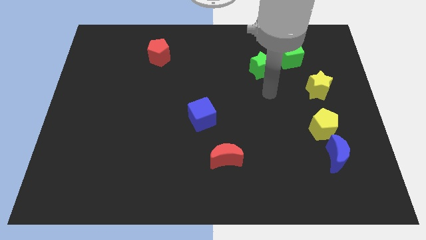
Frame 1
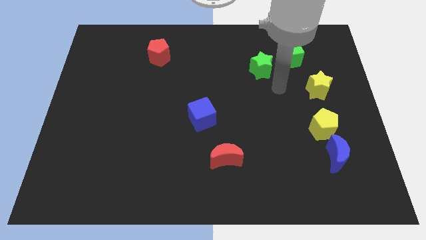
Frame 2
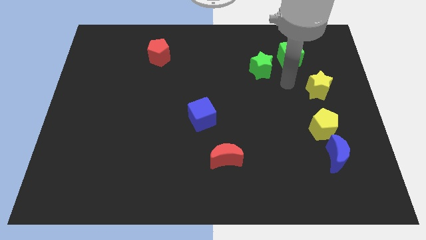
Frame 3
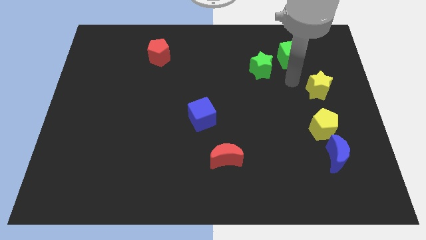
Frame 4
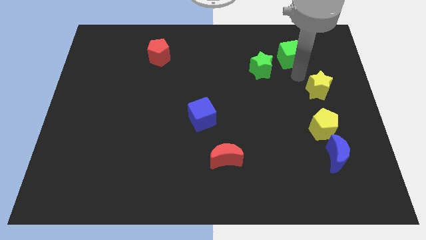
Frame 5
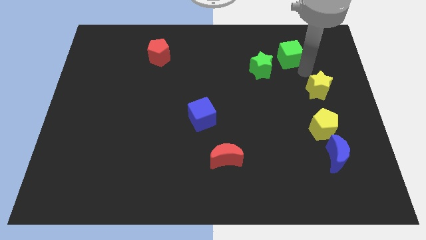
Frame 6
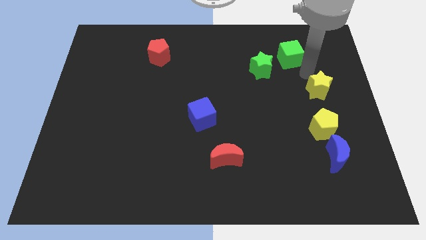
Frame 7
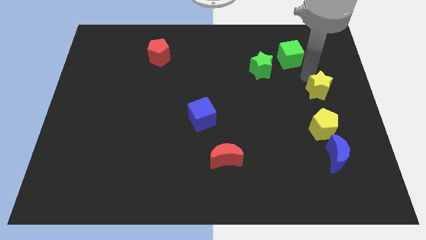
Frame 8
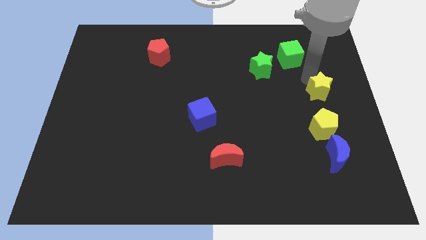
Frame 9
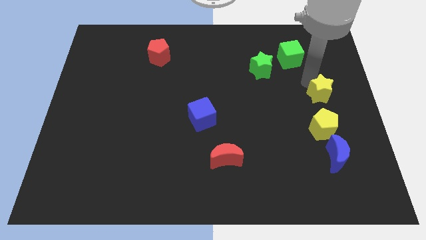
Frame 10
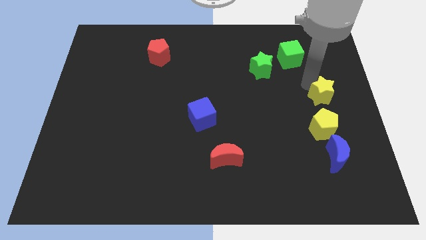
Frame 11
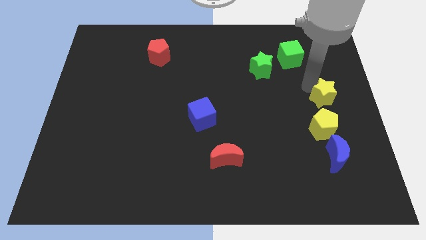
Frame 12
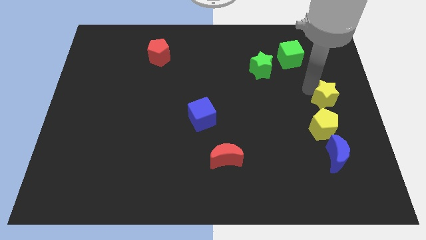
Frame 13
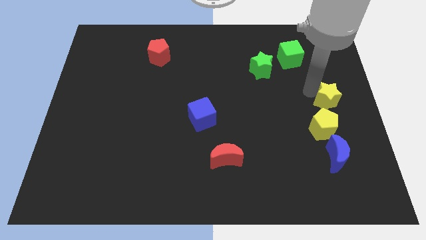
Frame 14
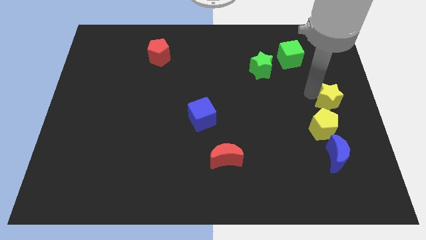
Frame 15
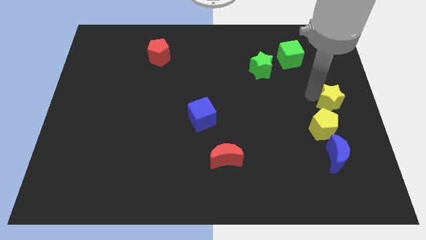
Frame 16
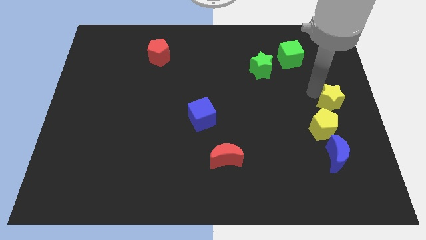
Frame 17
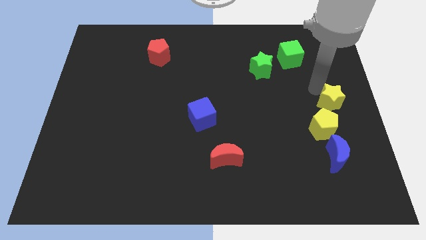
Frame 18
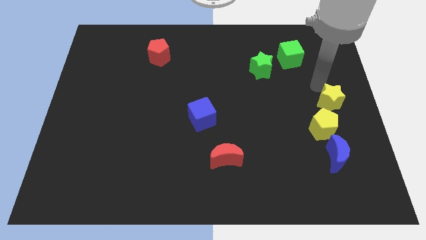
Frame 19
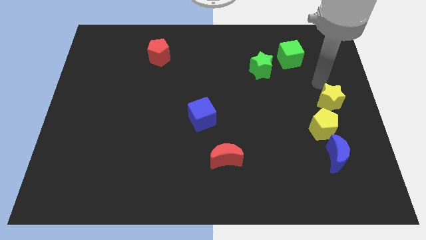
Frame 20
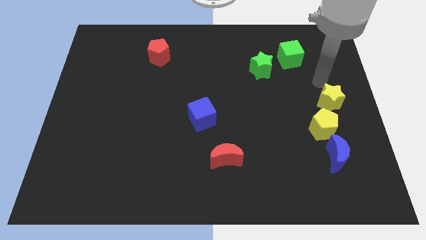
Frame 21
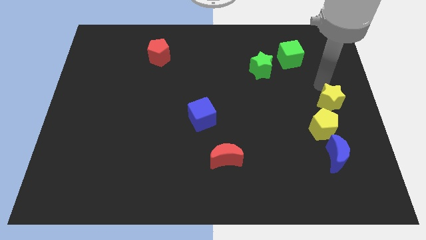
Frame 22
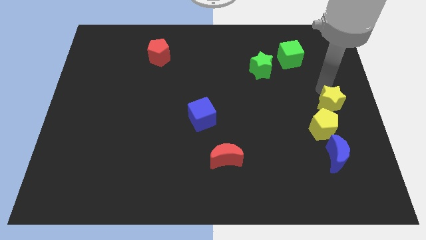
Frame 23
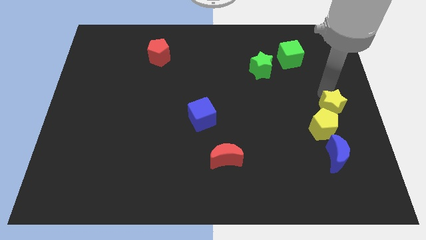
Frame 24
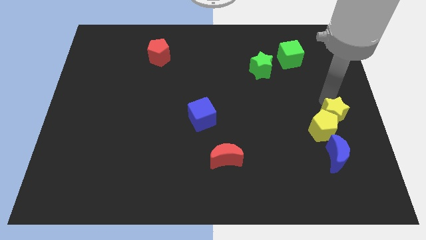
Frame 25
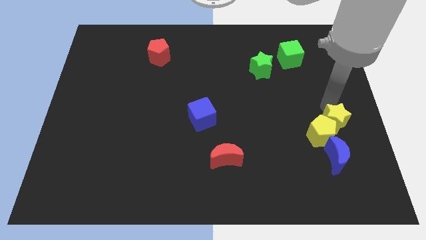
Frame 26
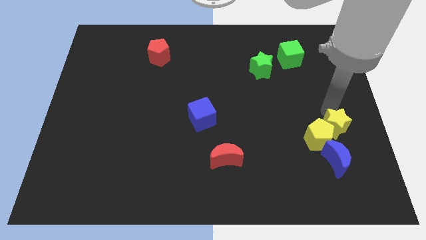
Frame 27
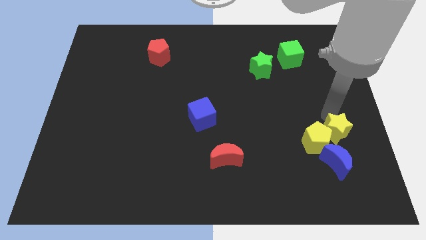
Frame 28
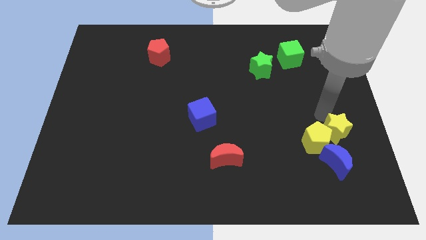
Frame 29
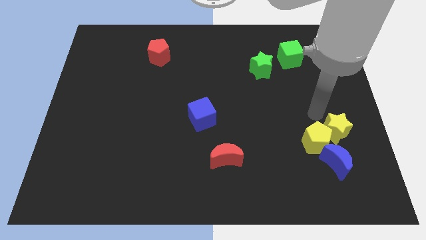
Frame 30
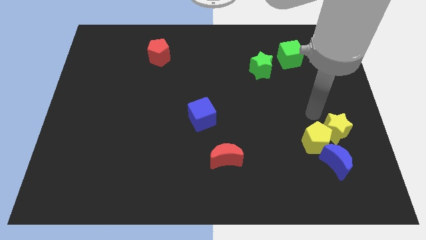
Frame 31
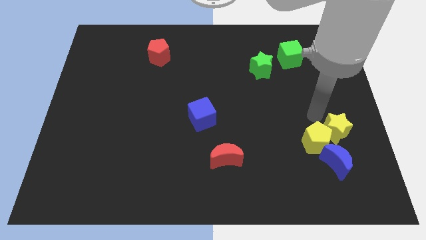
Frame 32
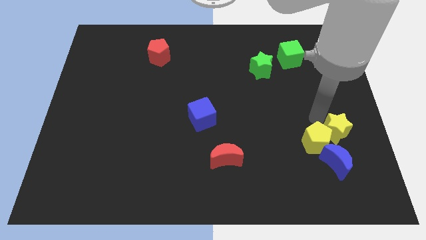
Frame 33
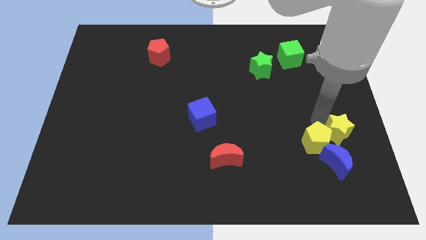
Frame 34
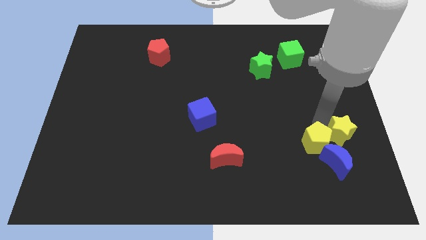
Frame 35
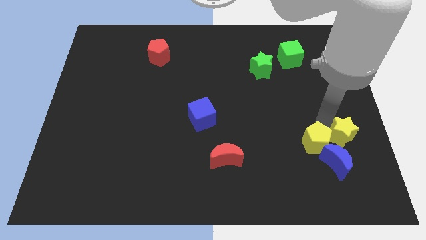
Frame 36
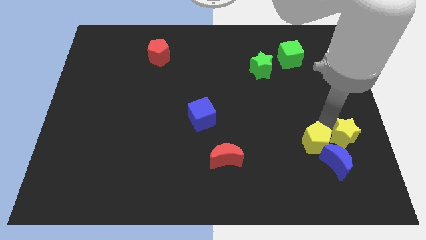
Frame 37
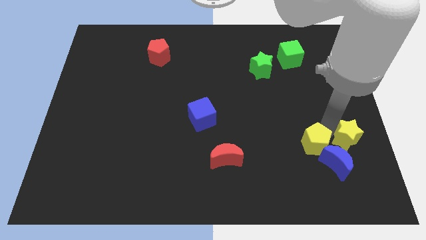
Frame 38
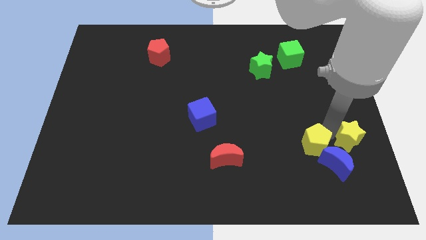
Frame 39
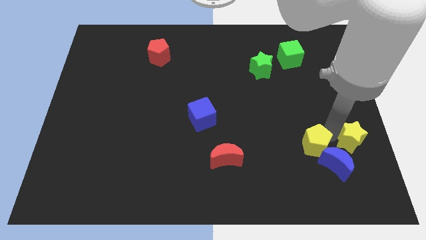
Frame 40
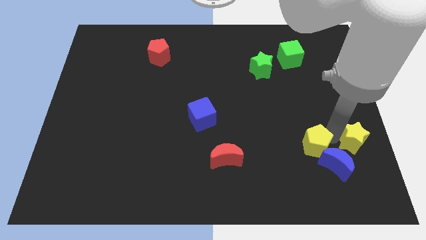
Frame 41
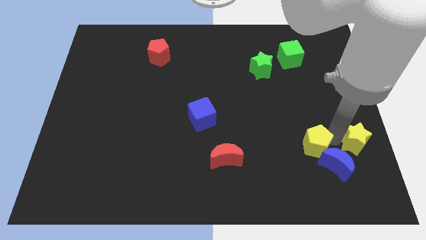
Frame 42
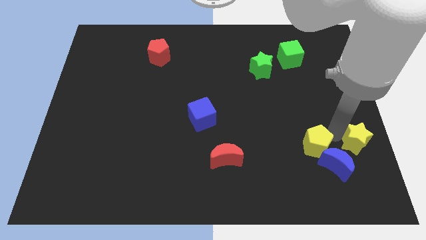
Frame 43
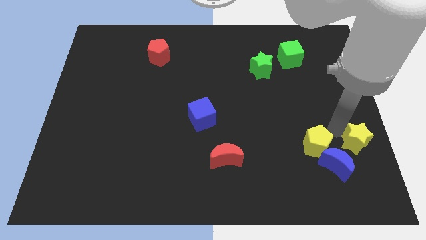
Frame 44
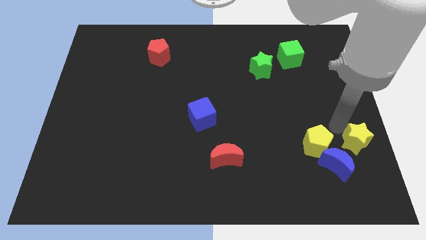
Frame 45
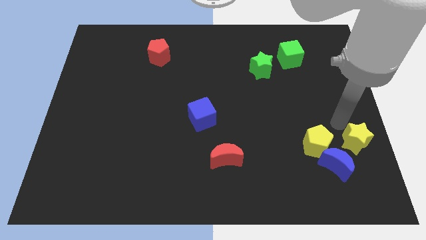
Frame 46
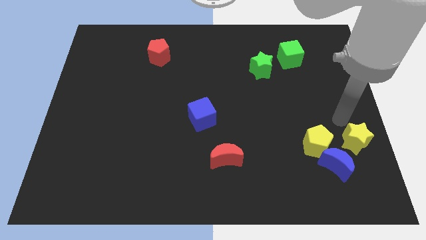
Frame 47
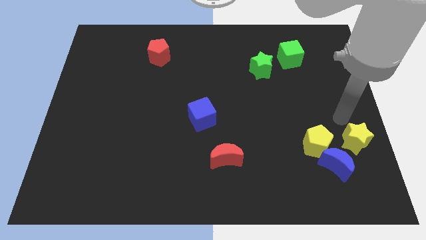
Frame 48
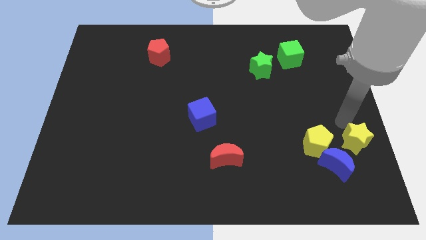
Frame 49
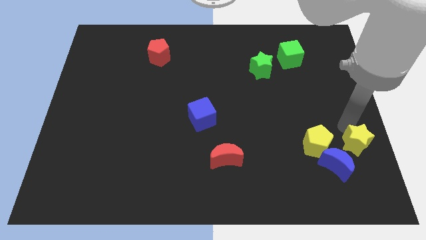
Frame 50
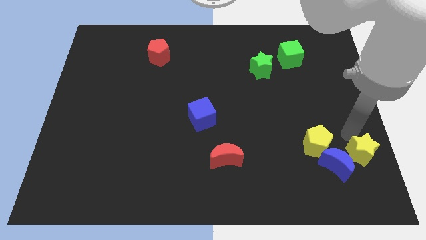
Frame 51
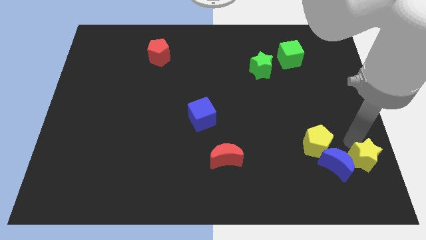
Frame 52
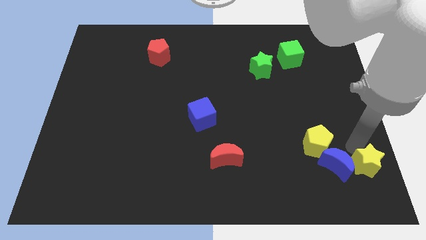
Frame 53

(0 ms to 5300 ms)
move the yellow star to the bottom right

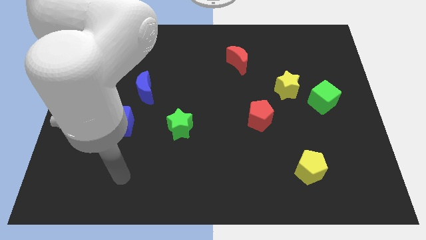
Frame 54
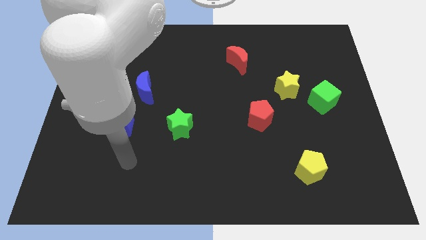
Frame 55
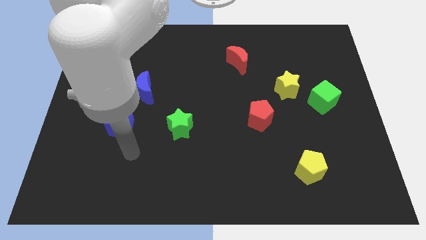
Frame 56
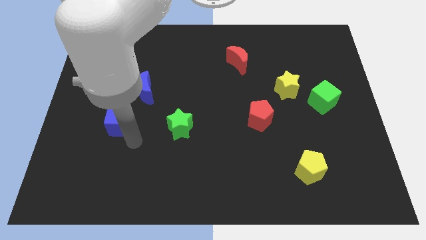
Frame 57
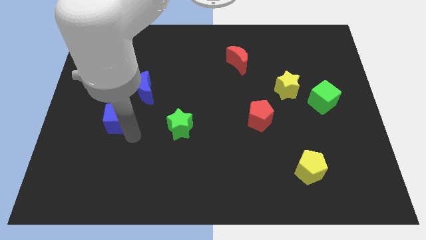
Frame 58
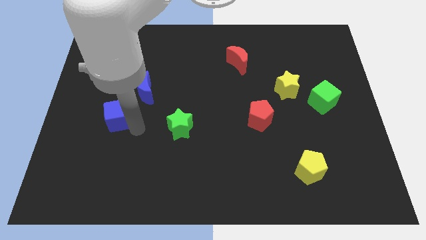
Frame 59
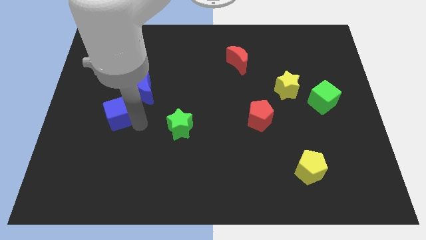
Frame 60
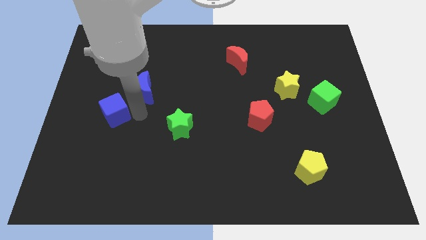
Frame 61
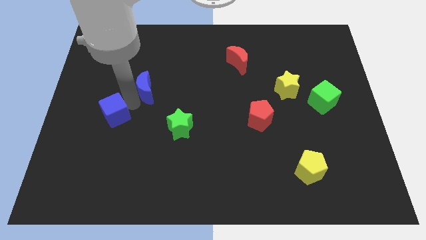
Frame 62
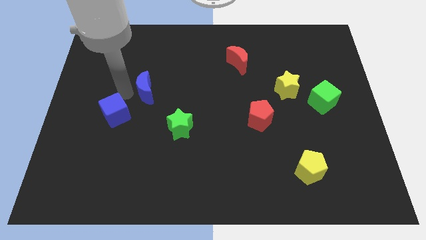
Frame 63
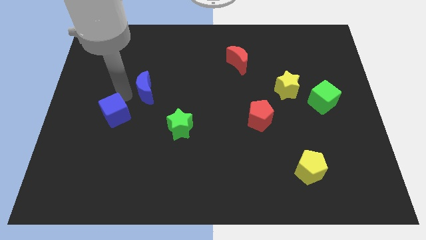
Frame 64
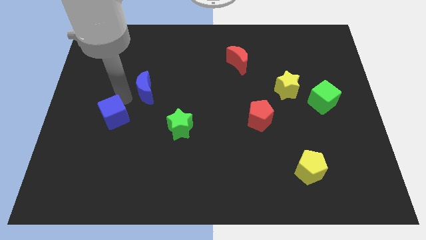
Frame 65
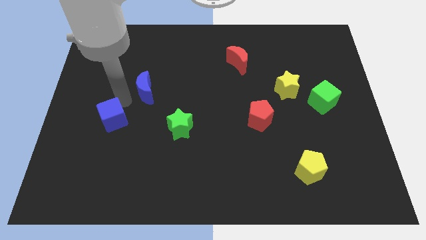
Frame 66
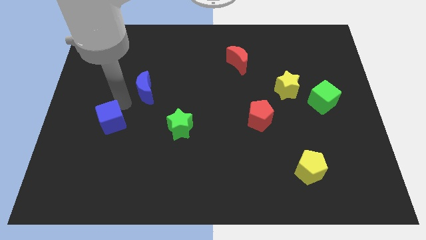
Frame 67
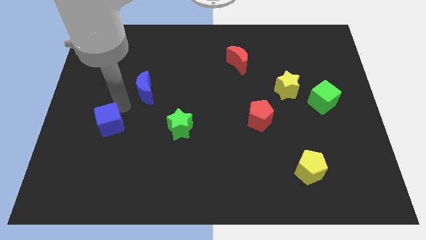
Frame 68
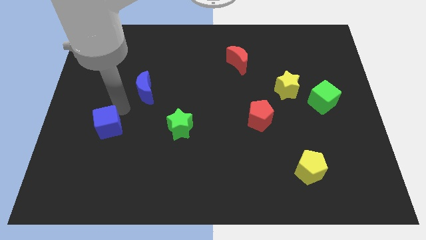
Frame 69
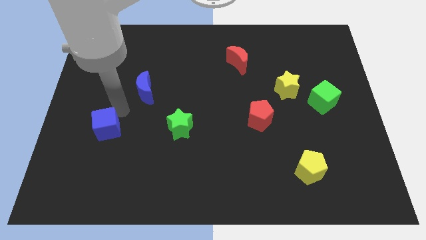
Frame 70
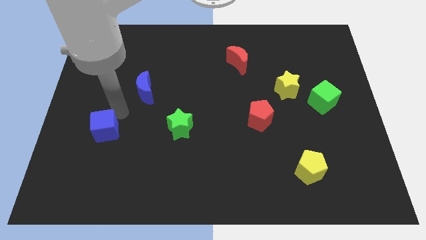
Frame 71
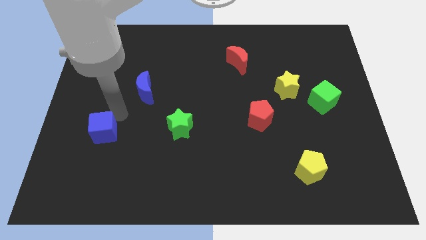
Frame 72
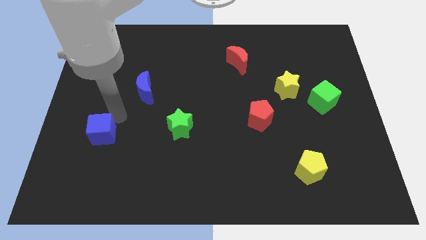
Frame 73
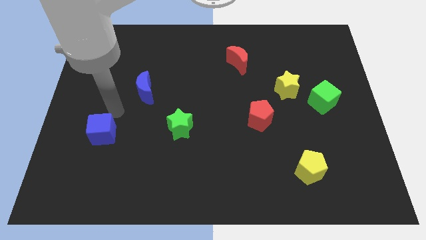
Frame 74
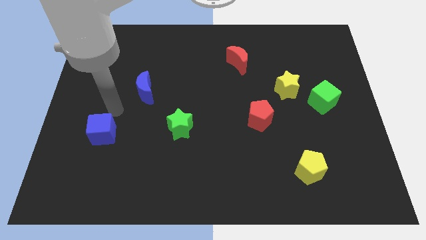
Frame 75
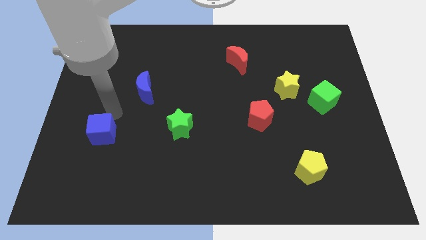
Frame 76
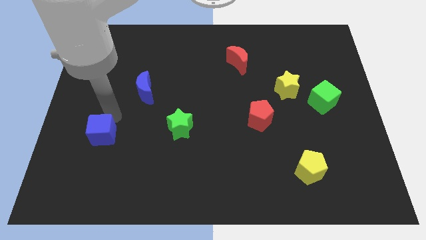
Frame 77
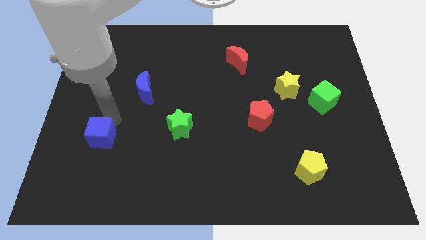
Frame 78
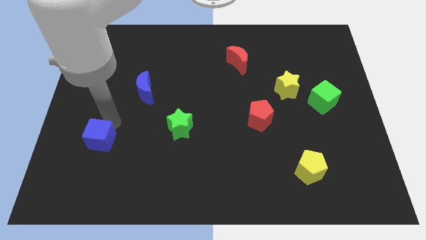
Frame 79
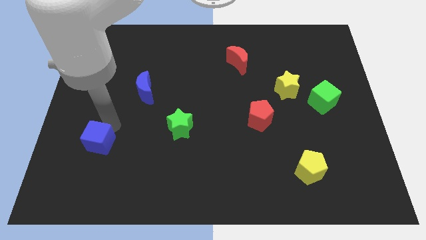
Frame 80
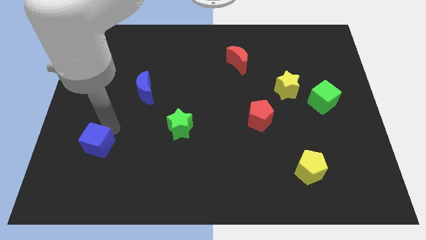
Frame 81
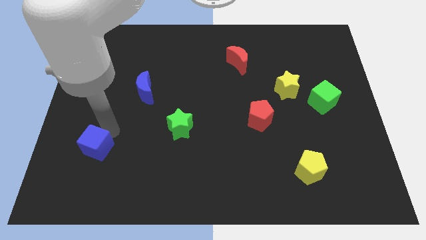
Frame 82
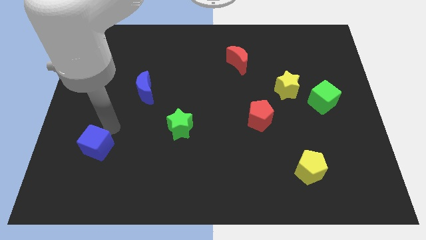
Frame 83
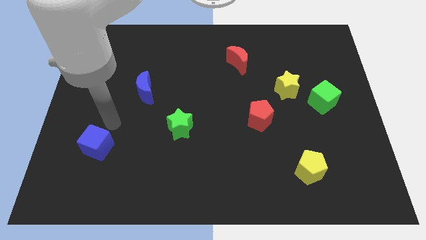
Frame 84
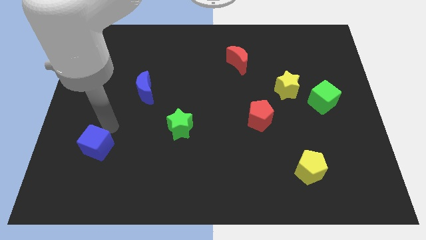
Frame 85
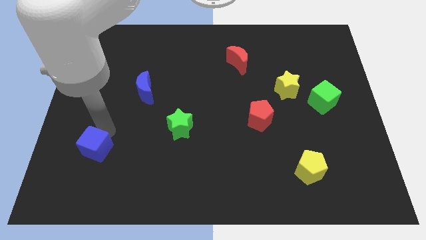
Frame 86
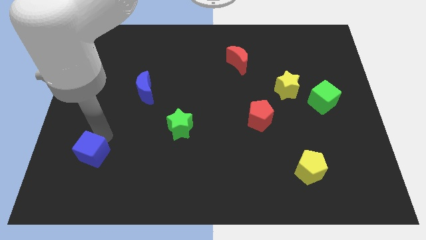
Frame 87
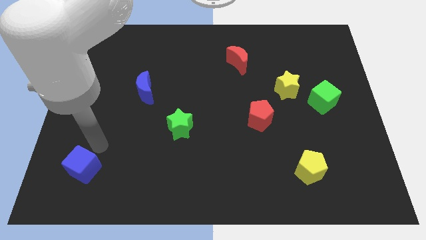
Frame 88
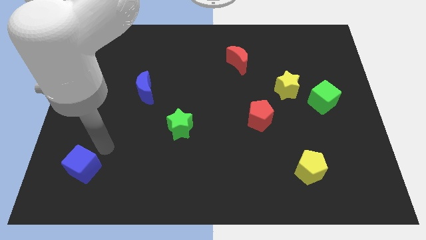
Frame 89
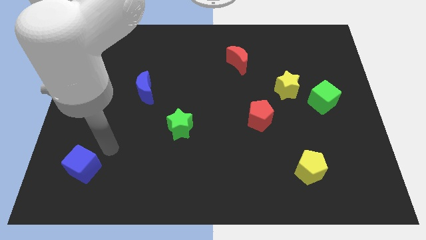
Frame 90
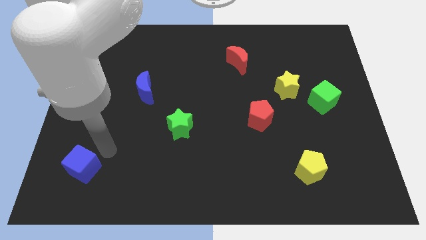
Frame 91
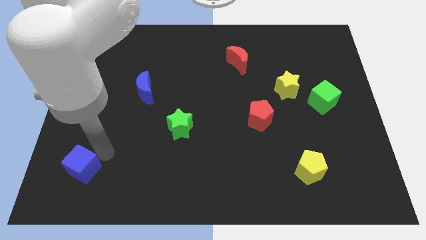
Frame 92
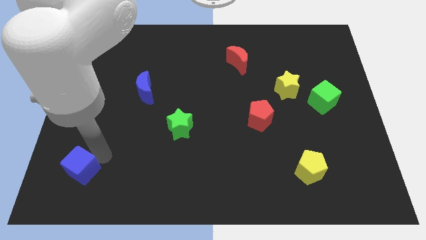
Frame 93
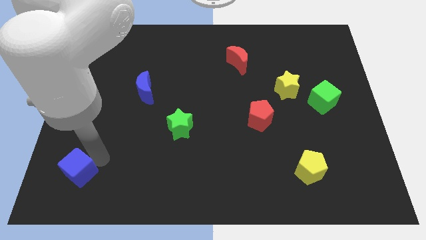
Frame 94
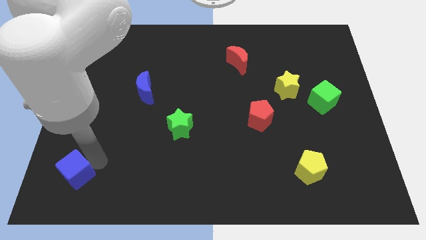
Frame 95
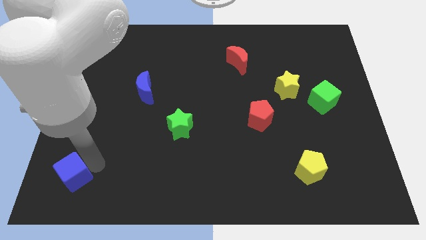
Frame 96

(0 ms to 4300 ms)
put the blue cube to the bottom left corner
